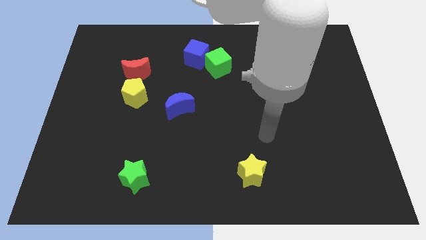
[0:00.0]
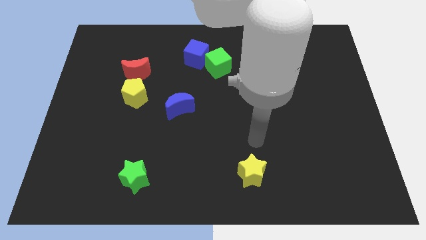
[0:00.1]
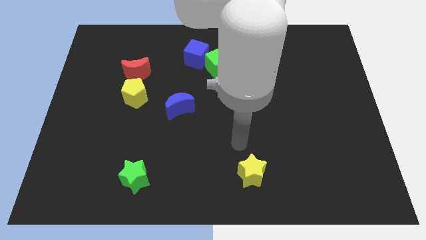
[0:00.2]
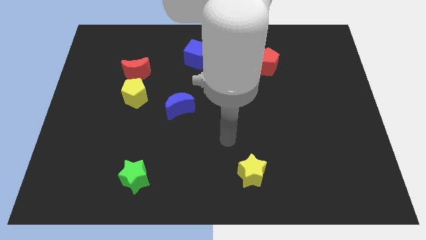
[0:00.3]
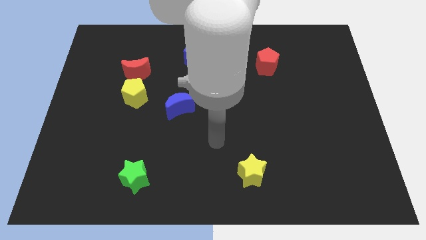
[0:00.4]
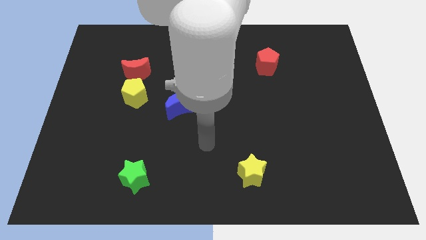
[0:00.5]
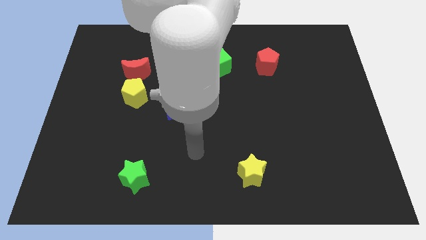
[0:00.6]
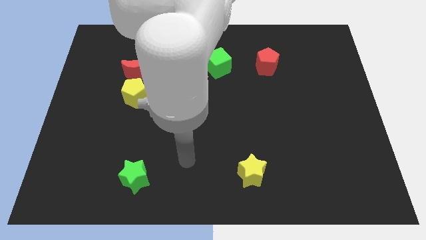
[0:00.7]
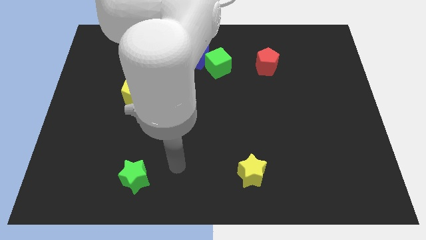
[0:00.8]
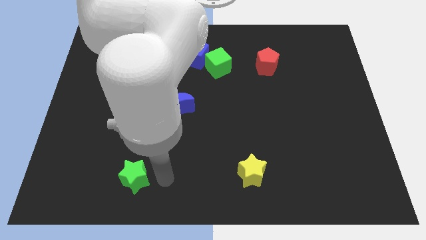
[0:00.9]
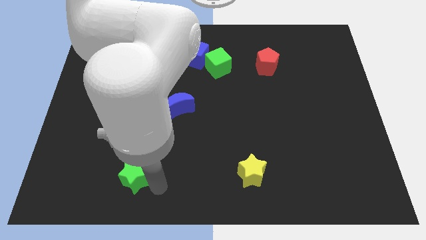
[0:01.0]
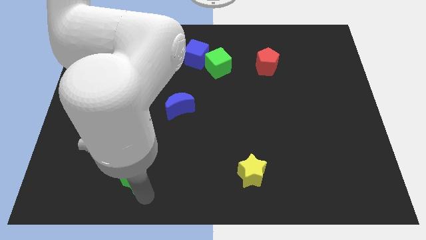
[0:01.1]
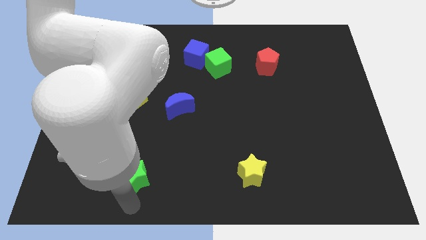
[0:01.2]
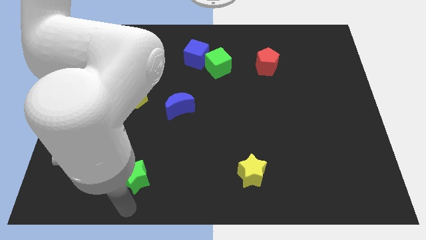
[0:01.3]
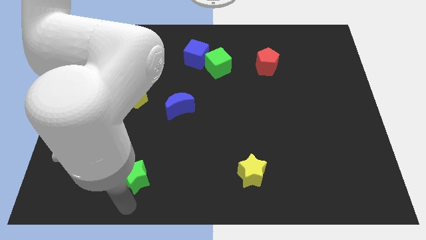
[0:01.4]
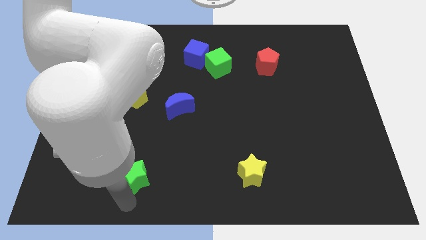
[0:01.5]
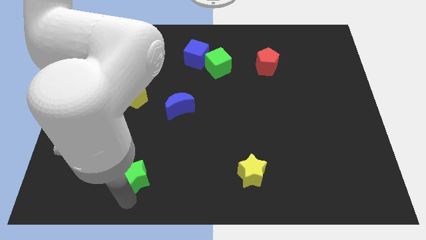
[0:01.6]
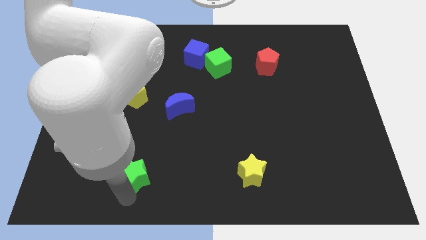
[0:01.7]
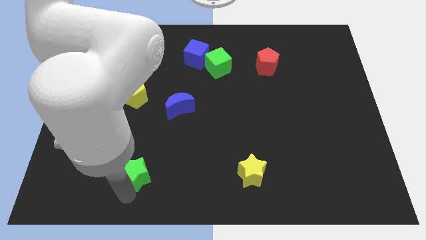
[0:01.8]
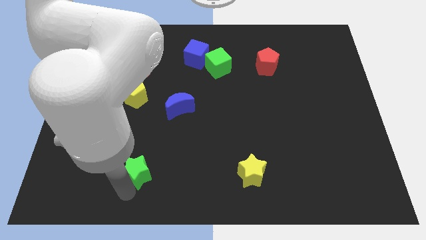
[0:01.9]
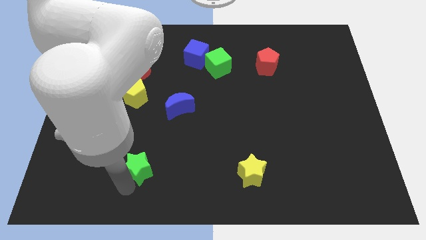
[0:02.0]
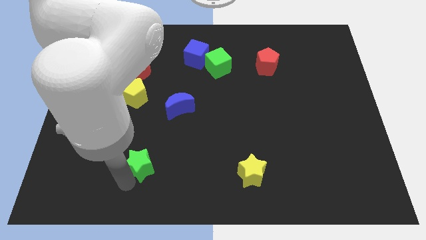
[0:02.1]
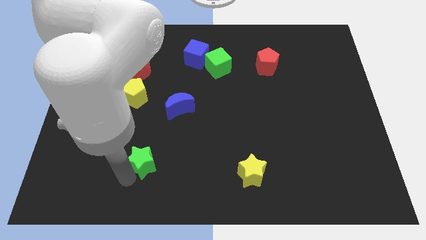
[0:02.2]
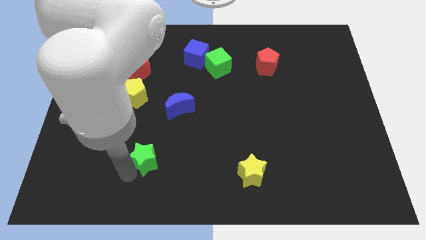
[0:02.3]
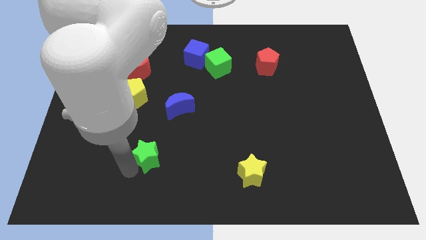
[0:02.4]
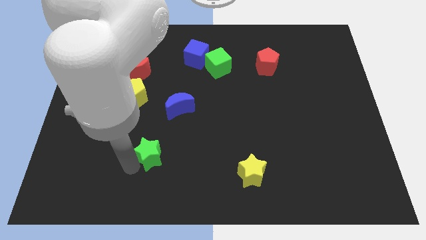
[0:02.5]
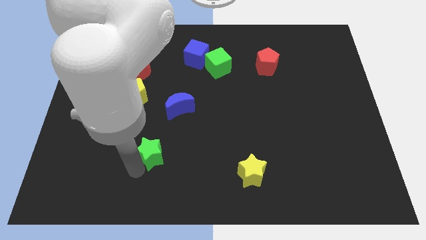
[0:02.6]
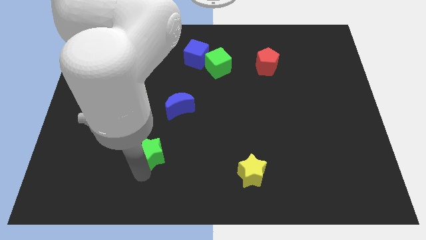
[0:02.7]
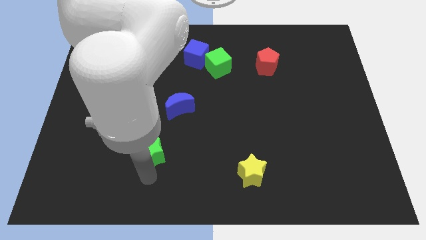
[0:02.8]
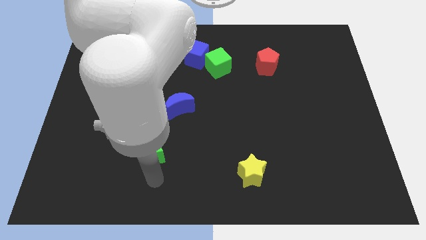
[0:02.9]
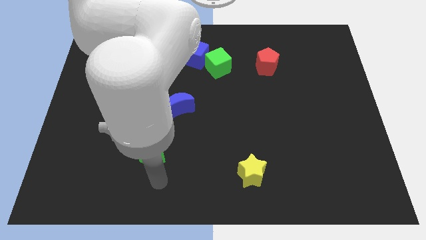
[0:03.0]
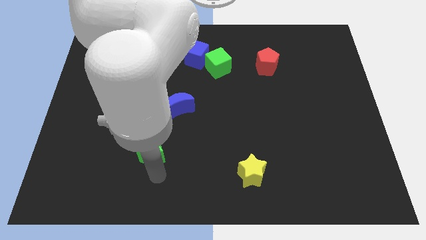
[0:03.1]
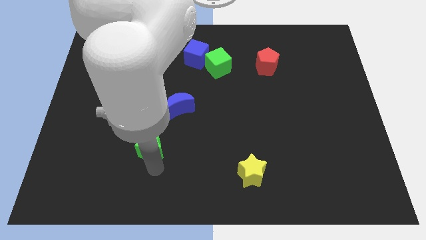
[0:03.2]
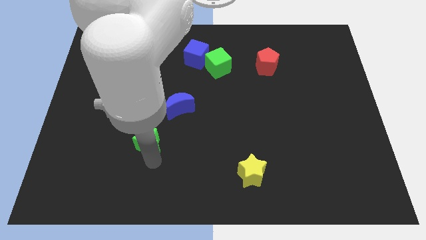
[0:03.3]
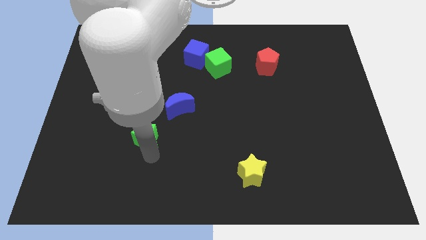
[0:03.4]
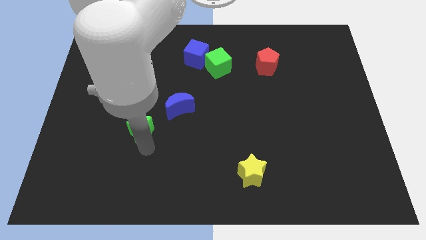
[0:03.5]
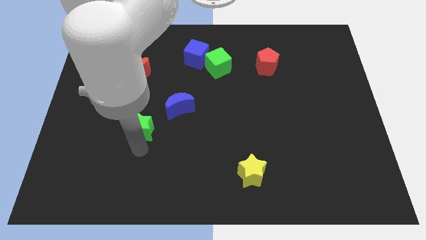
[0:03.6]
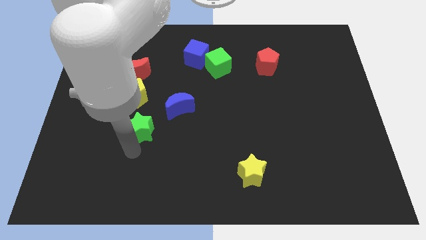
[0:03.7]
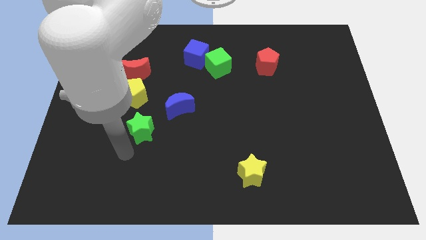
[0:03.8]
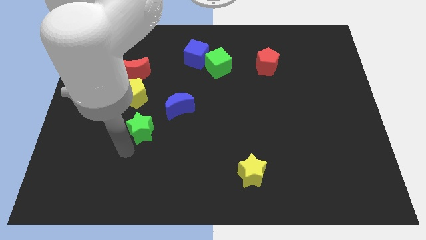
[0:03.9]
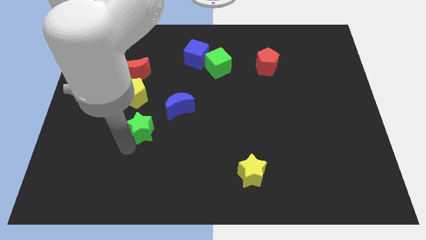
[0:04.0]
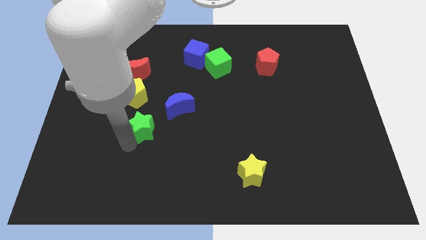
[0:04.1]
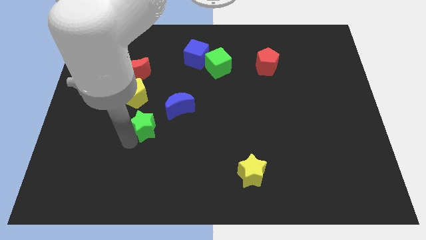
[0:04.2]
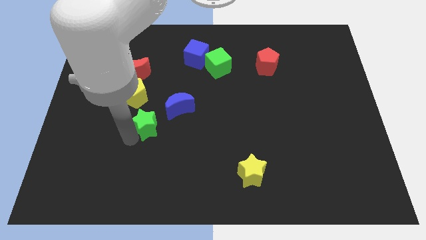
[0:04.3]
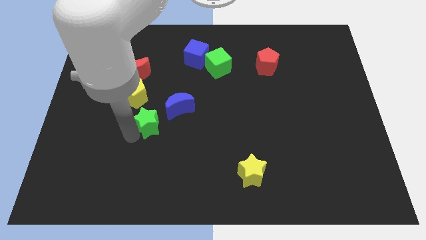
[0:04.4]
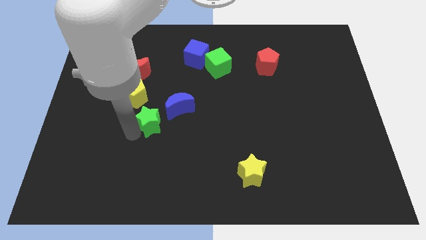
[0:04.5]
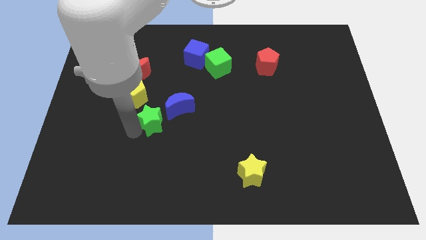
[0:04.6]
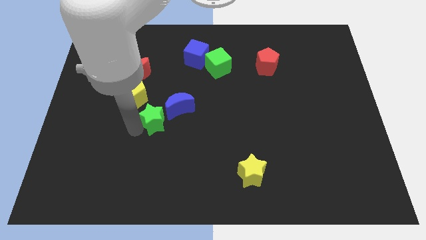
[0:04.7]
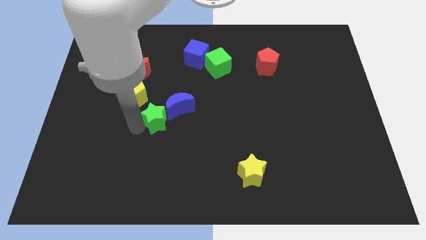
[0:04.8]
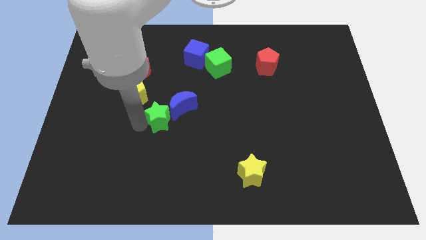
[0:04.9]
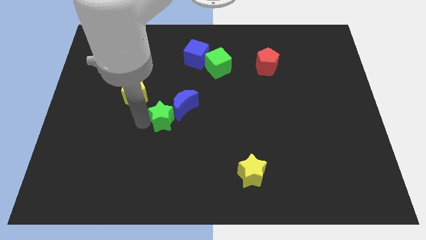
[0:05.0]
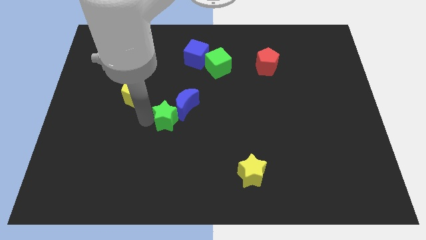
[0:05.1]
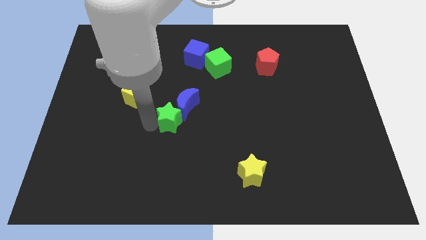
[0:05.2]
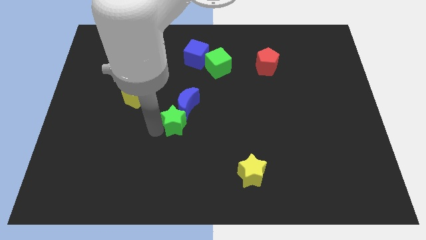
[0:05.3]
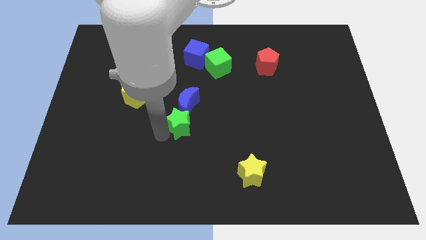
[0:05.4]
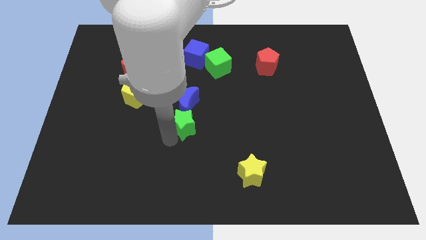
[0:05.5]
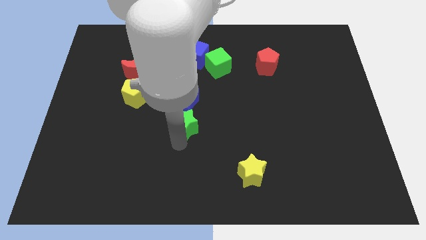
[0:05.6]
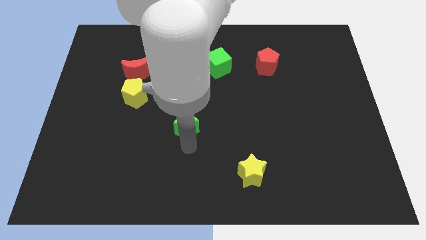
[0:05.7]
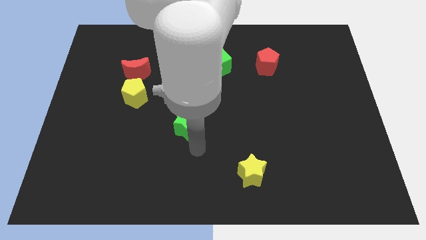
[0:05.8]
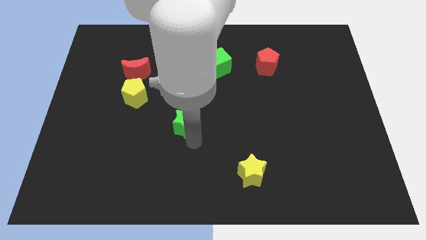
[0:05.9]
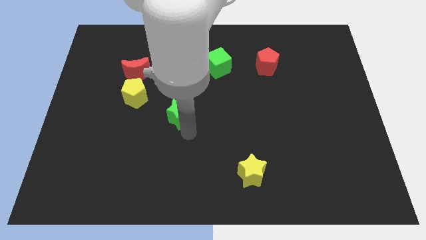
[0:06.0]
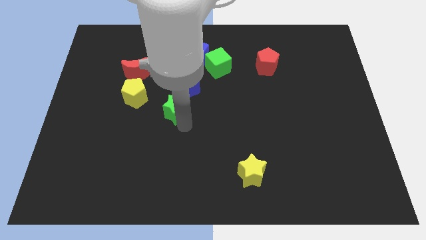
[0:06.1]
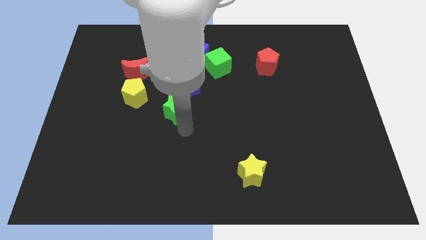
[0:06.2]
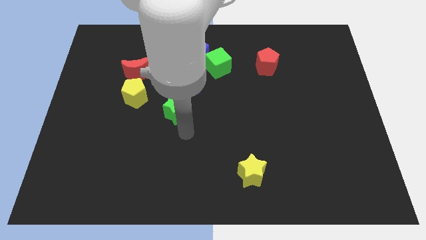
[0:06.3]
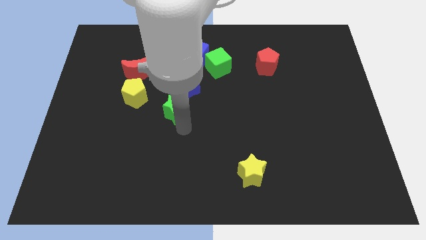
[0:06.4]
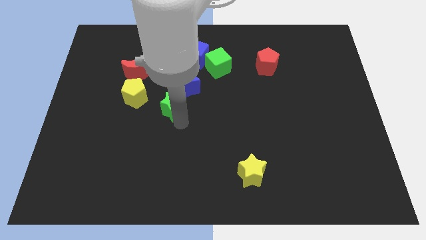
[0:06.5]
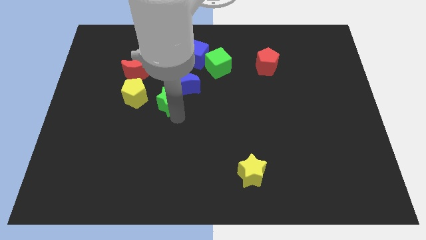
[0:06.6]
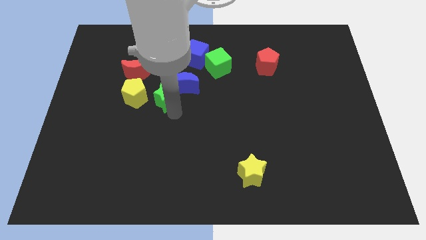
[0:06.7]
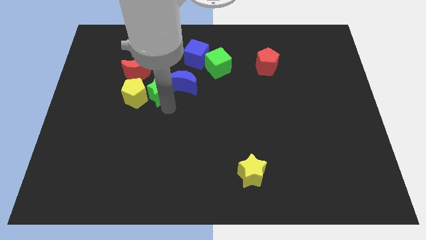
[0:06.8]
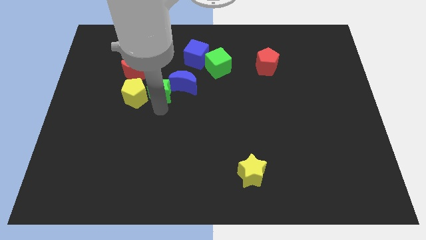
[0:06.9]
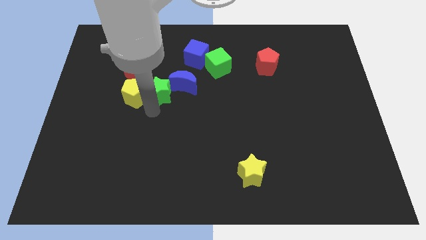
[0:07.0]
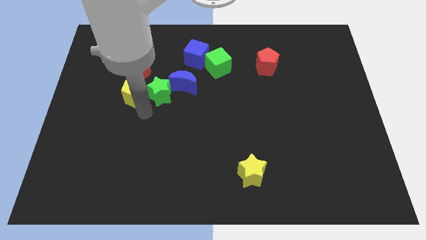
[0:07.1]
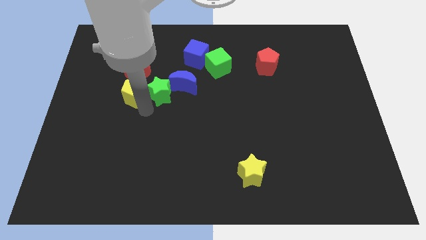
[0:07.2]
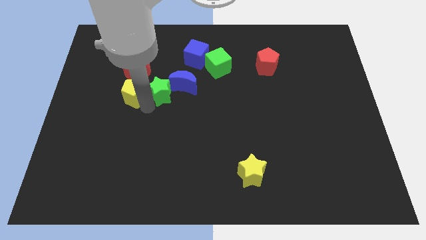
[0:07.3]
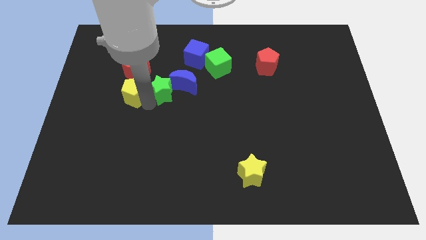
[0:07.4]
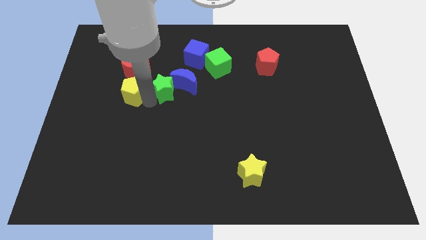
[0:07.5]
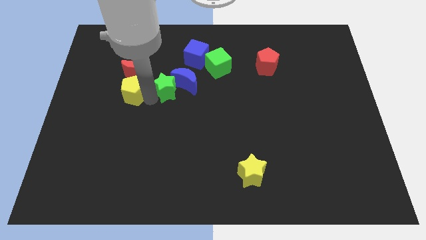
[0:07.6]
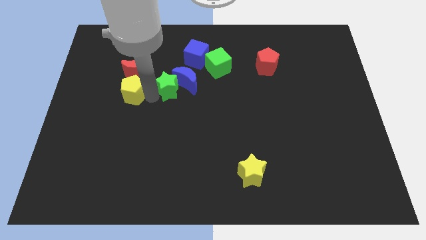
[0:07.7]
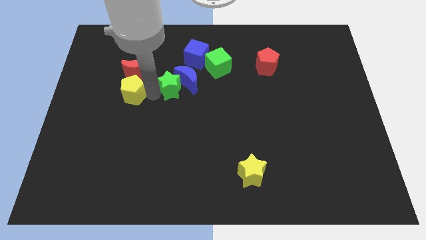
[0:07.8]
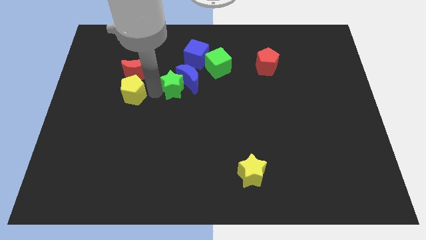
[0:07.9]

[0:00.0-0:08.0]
put the green star right of the red moon
